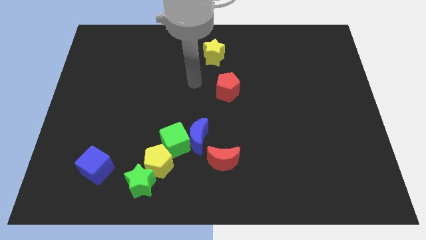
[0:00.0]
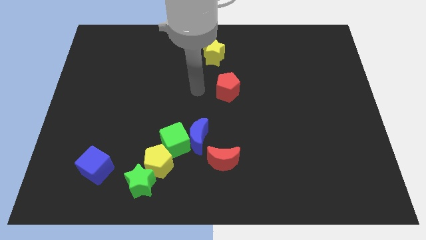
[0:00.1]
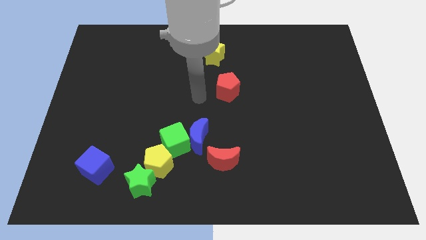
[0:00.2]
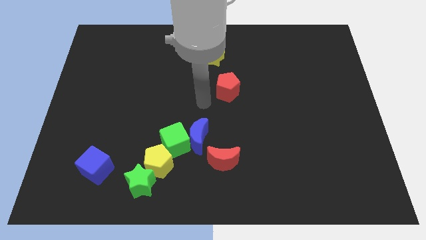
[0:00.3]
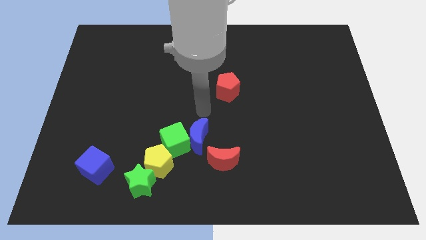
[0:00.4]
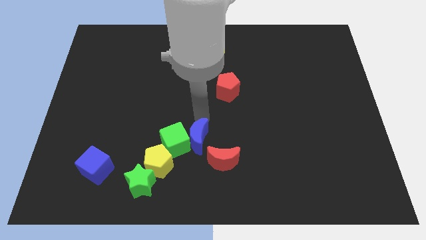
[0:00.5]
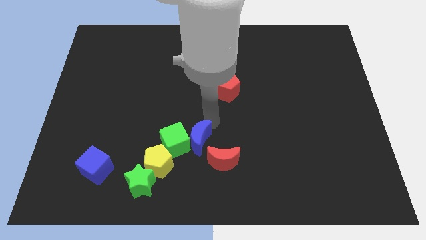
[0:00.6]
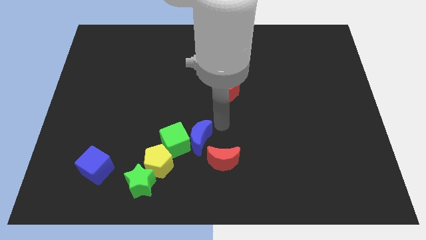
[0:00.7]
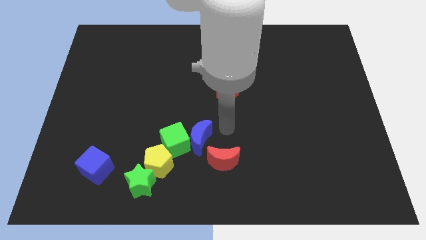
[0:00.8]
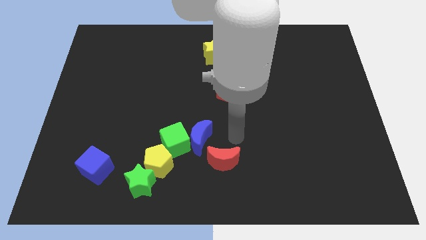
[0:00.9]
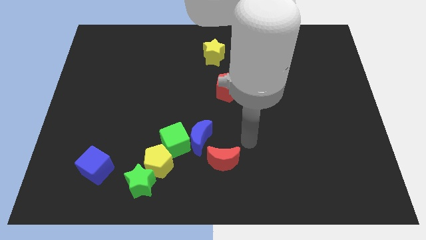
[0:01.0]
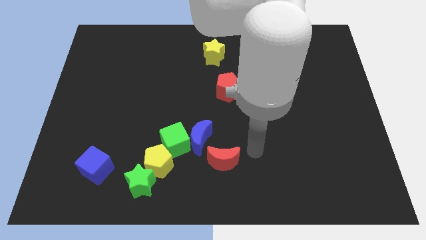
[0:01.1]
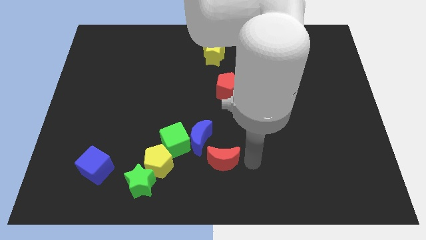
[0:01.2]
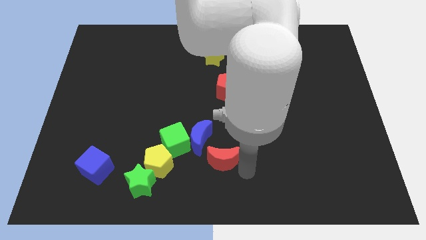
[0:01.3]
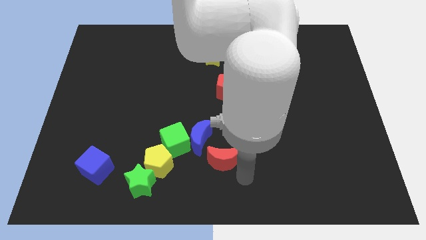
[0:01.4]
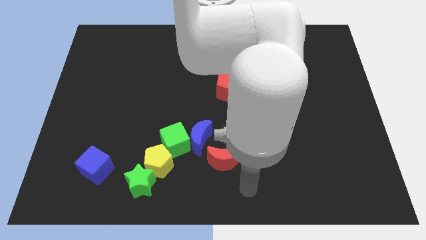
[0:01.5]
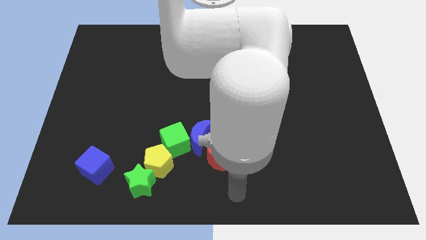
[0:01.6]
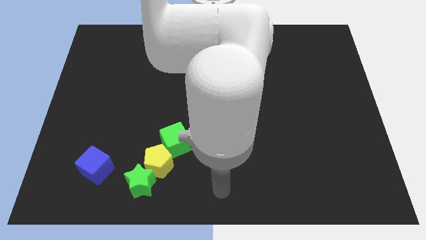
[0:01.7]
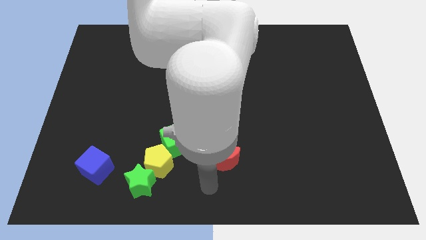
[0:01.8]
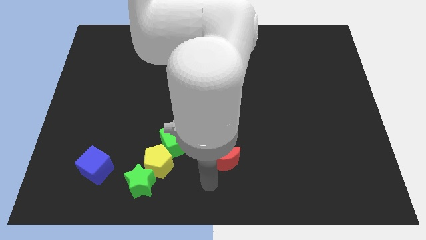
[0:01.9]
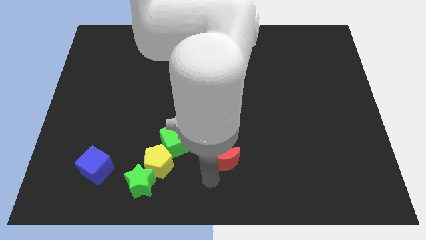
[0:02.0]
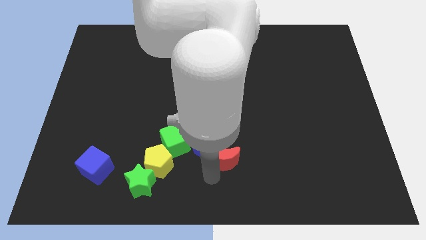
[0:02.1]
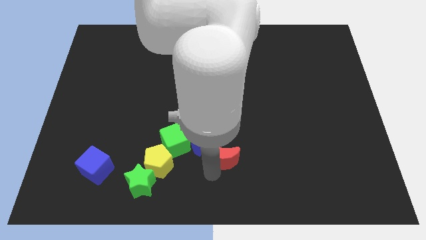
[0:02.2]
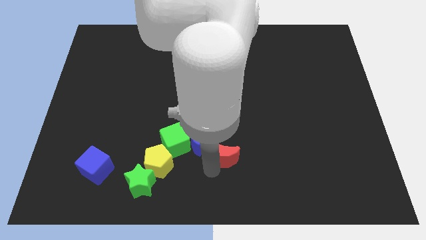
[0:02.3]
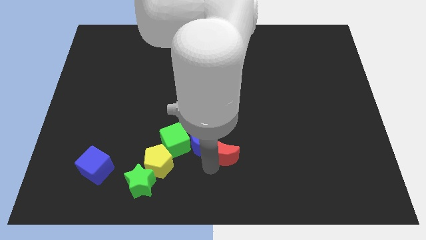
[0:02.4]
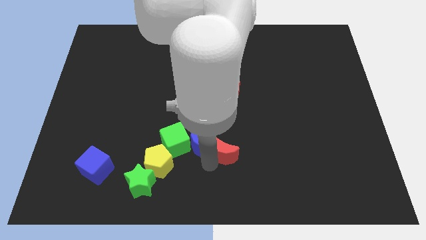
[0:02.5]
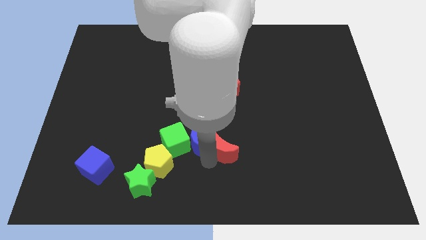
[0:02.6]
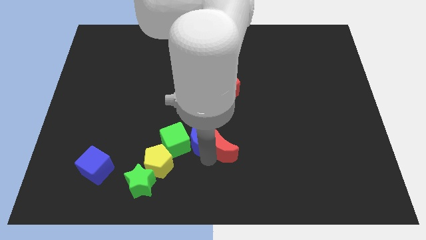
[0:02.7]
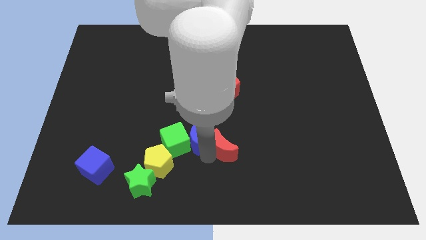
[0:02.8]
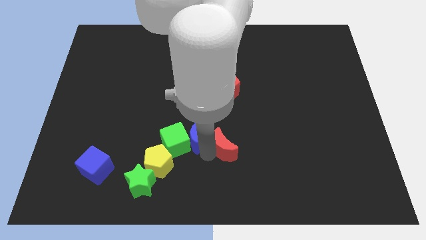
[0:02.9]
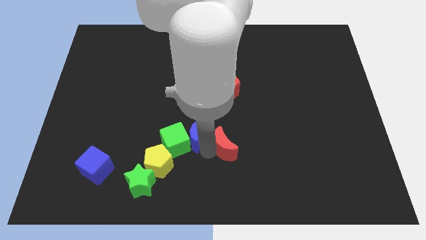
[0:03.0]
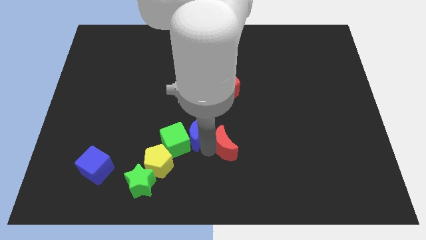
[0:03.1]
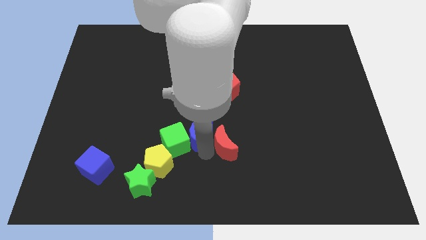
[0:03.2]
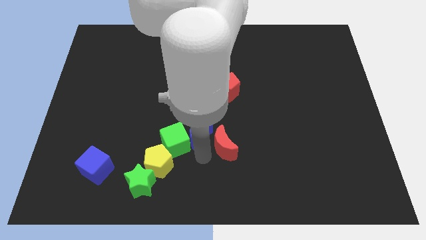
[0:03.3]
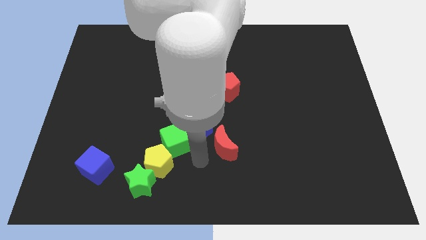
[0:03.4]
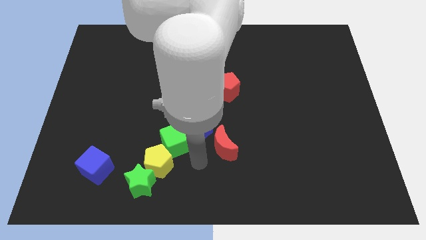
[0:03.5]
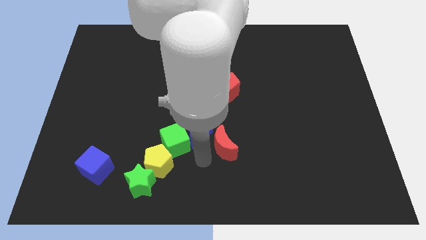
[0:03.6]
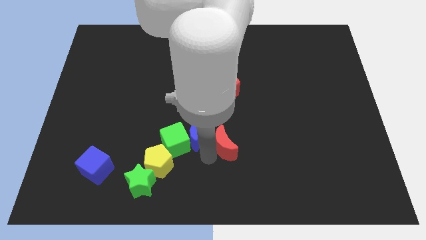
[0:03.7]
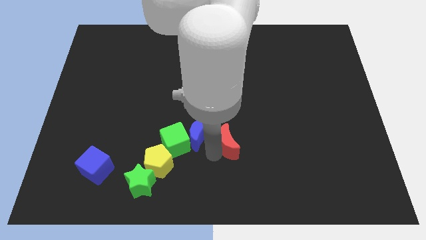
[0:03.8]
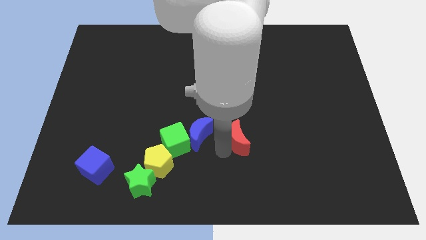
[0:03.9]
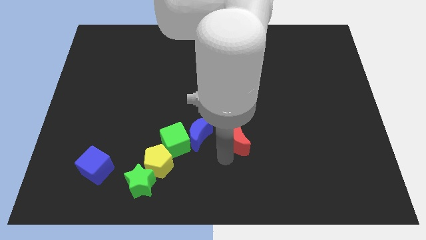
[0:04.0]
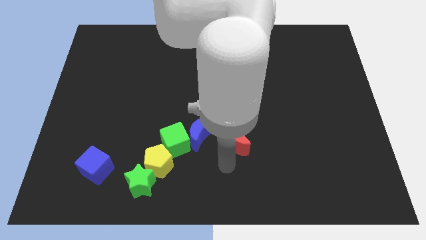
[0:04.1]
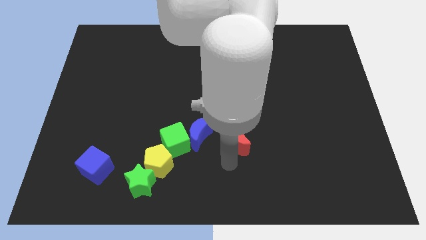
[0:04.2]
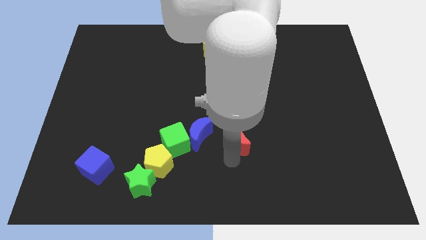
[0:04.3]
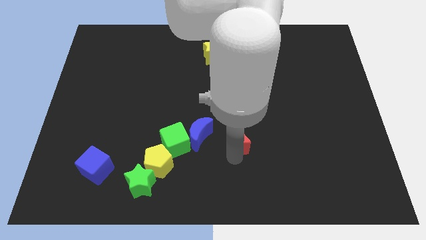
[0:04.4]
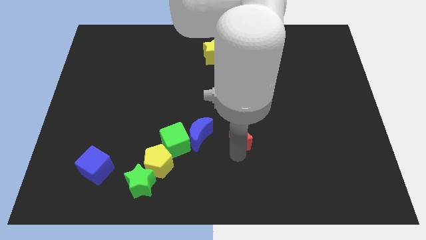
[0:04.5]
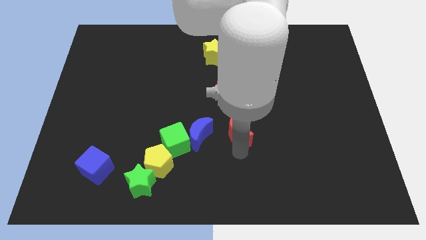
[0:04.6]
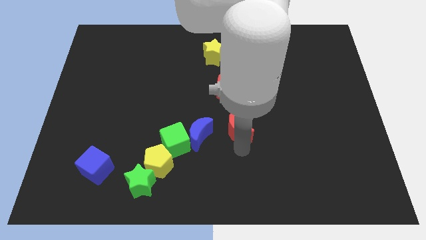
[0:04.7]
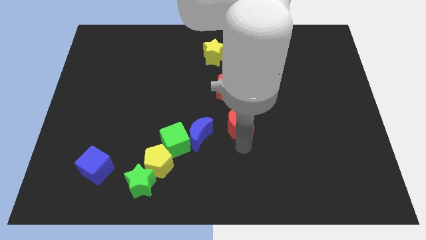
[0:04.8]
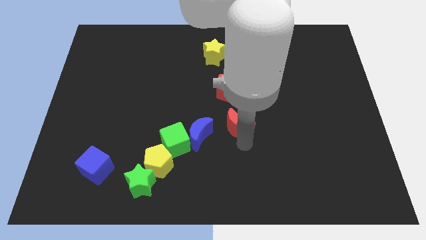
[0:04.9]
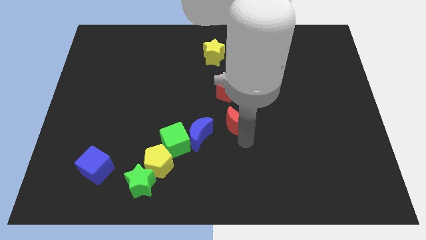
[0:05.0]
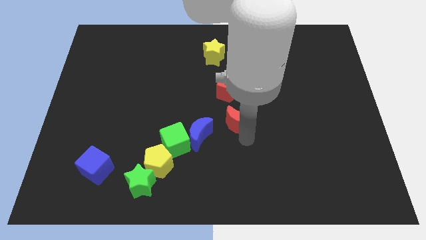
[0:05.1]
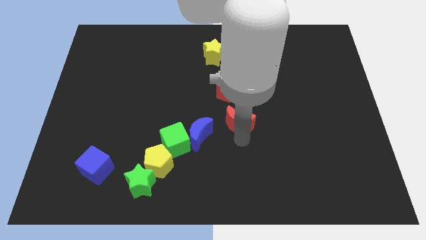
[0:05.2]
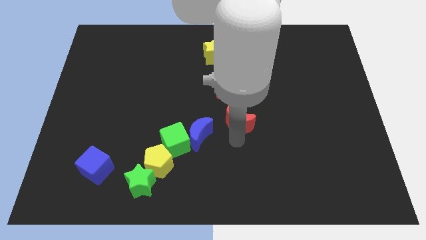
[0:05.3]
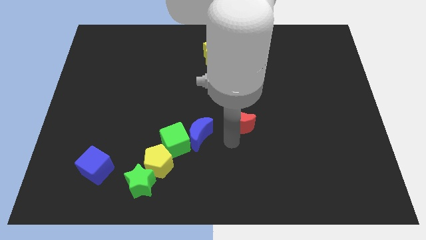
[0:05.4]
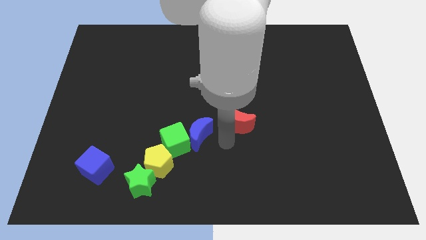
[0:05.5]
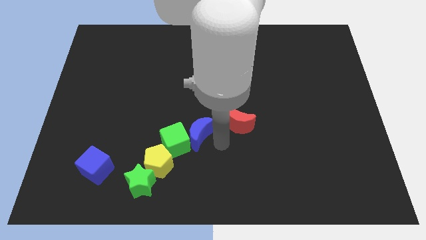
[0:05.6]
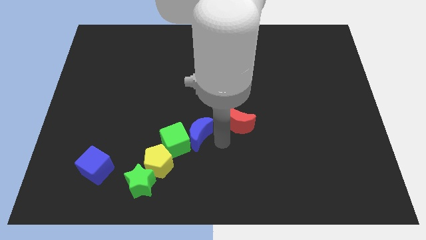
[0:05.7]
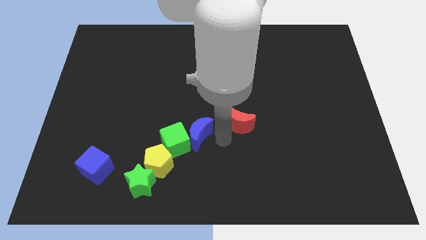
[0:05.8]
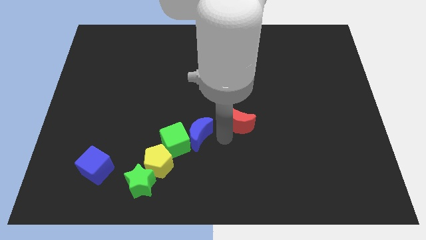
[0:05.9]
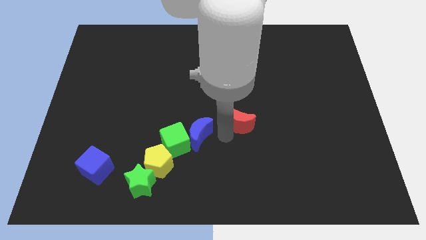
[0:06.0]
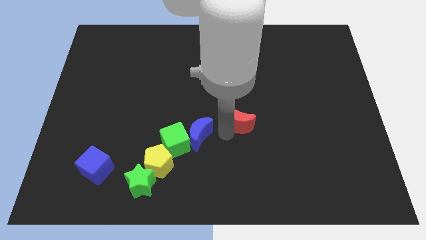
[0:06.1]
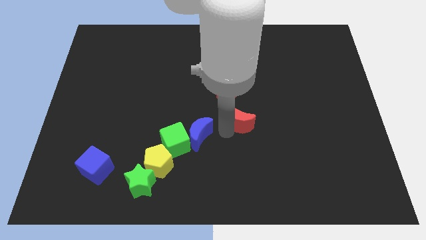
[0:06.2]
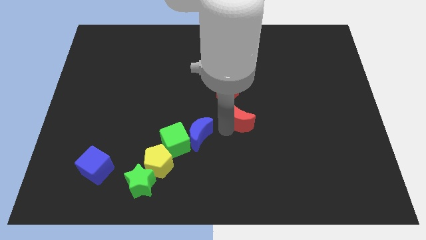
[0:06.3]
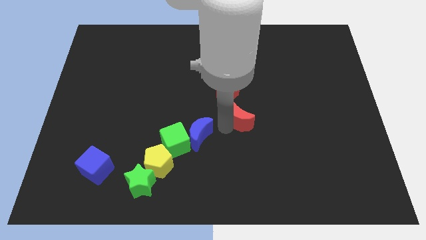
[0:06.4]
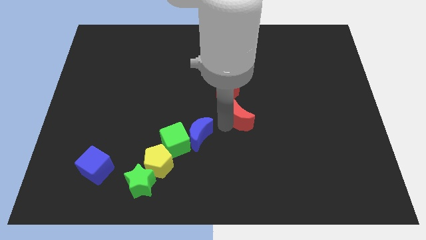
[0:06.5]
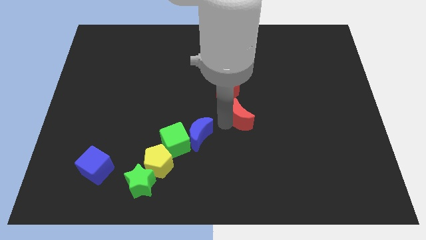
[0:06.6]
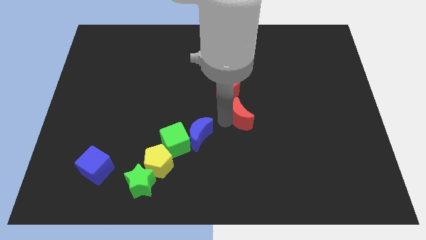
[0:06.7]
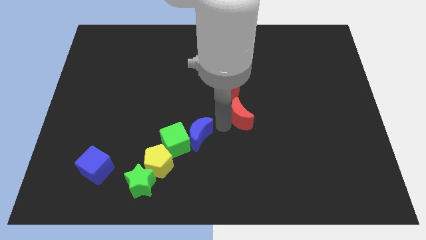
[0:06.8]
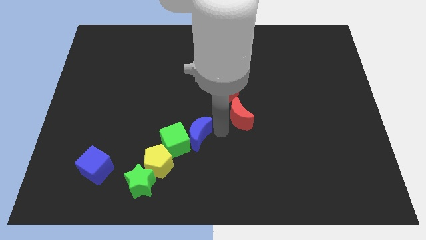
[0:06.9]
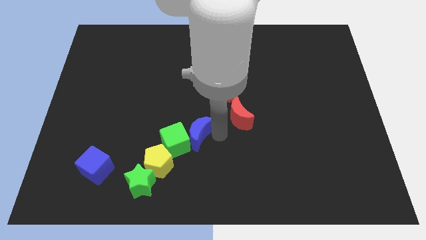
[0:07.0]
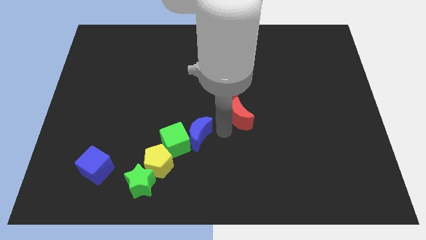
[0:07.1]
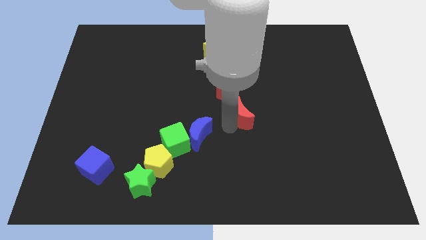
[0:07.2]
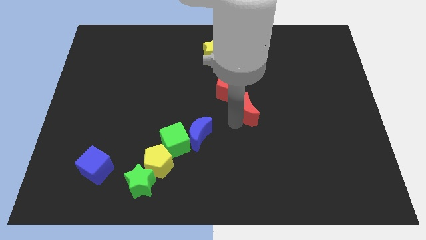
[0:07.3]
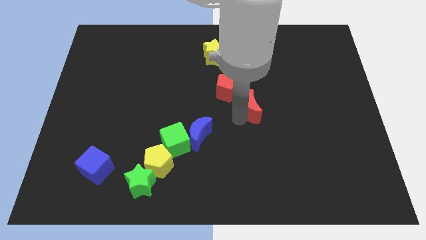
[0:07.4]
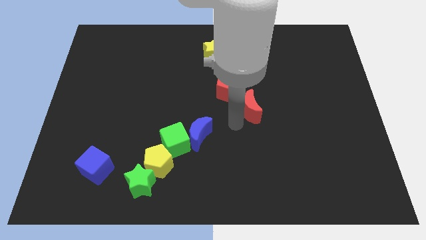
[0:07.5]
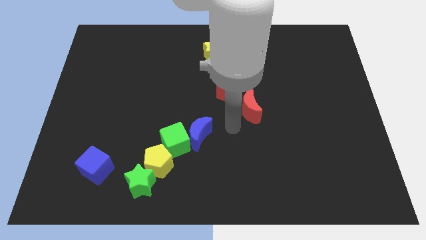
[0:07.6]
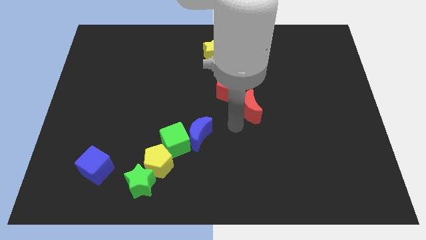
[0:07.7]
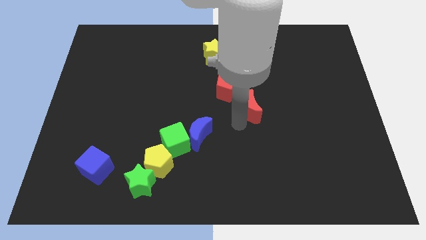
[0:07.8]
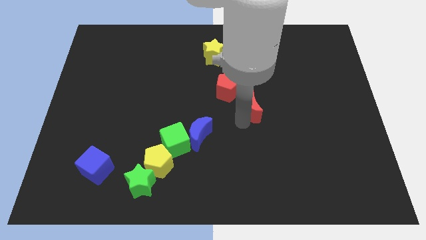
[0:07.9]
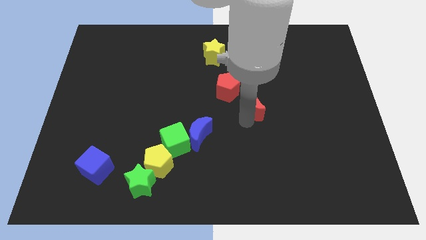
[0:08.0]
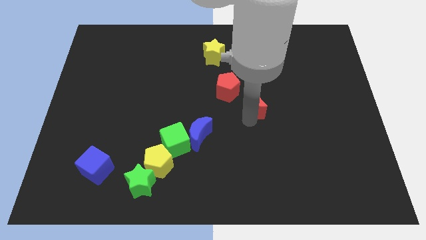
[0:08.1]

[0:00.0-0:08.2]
push the red moon to the right side of the red pentagon

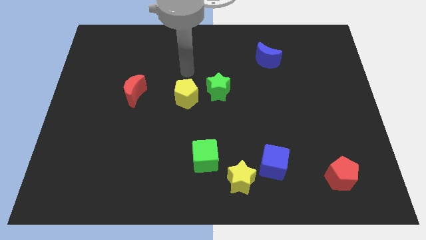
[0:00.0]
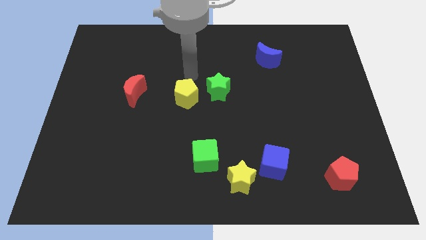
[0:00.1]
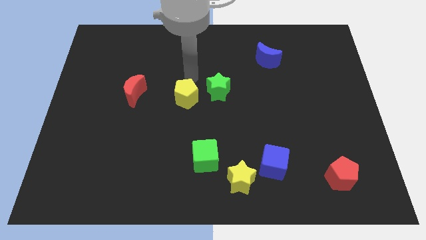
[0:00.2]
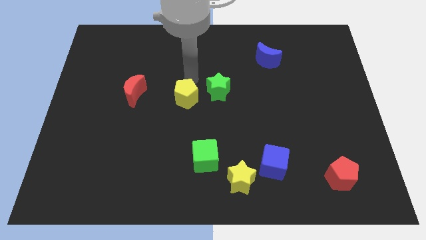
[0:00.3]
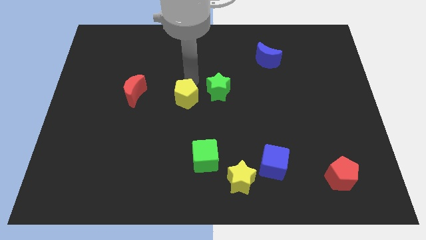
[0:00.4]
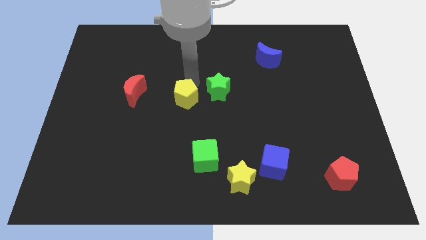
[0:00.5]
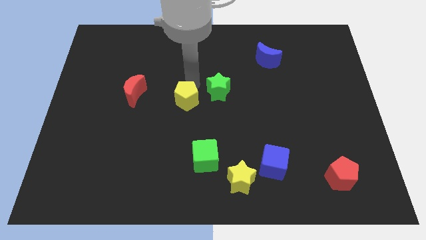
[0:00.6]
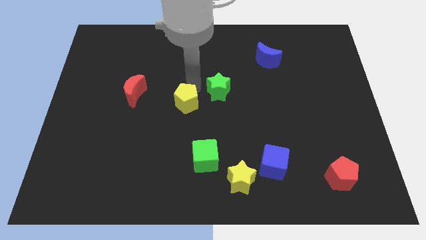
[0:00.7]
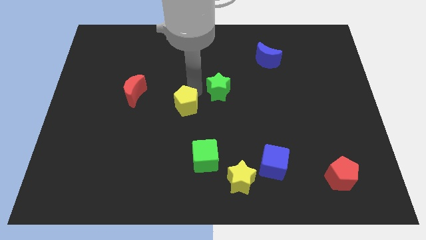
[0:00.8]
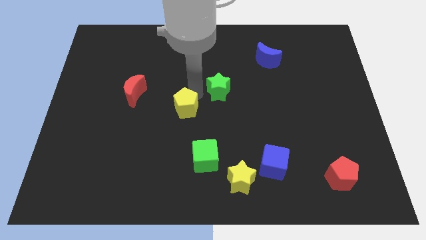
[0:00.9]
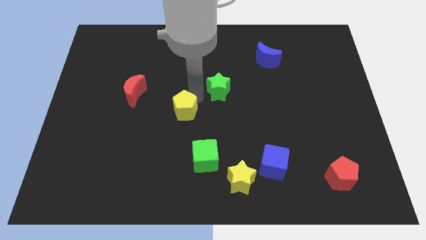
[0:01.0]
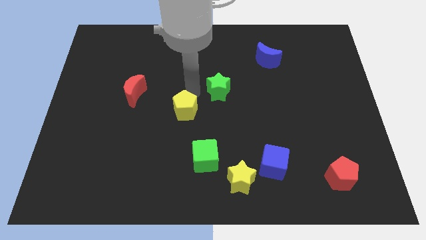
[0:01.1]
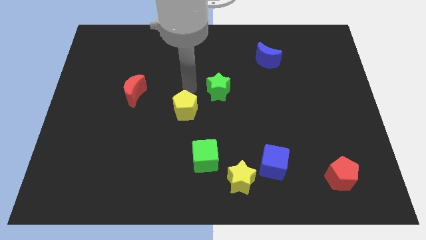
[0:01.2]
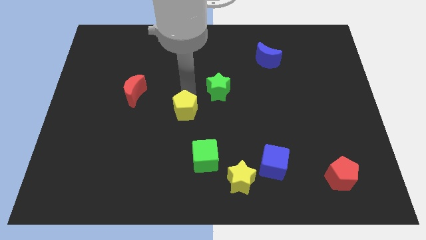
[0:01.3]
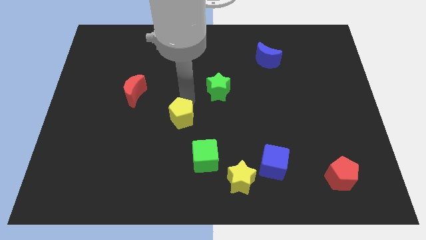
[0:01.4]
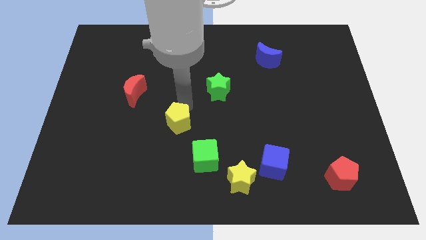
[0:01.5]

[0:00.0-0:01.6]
slide the yellow pentagon to the top left side of the green cube
